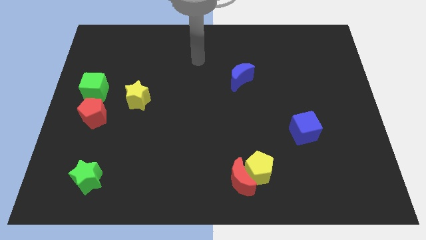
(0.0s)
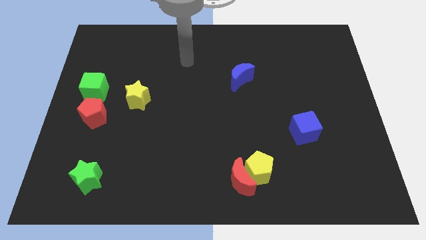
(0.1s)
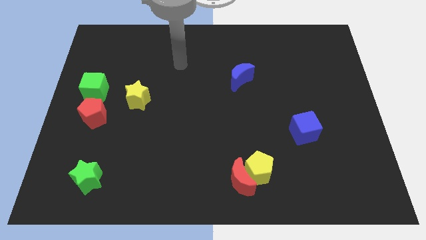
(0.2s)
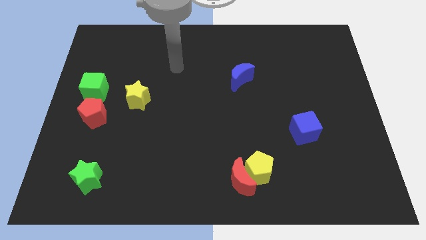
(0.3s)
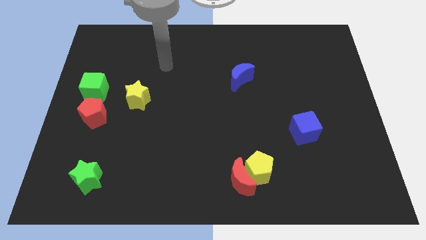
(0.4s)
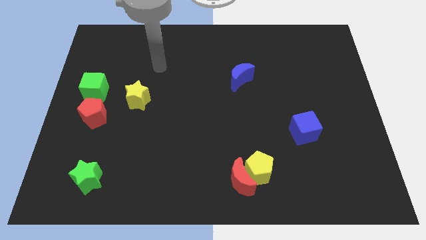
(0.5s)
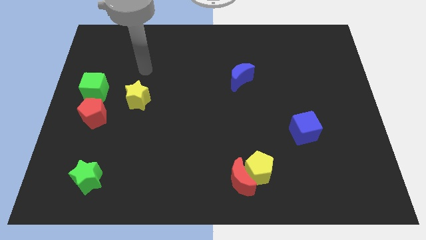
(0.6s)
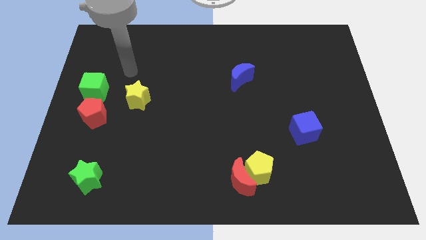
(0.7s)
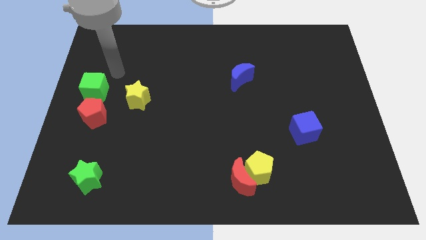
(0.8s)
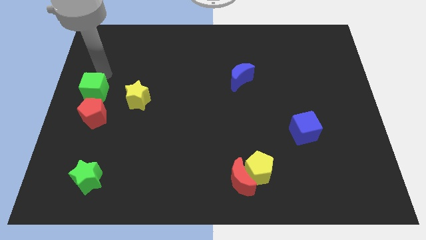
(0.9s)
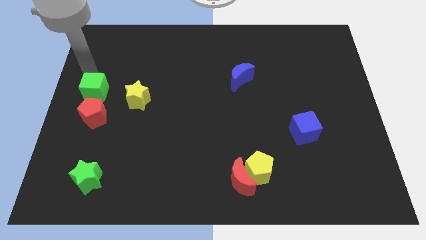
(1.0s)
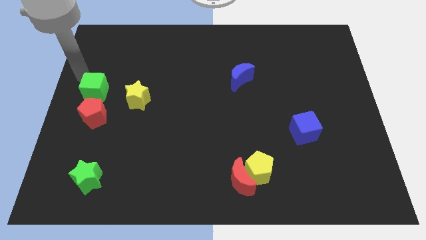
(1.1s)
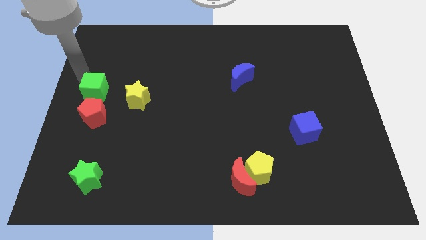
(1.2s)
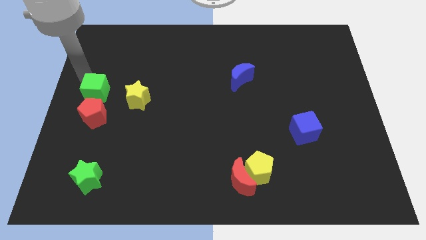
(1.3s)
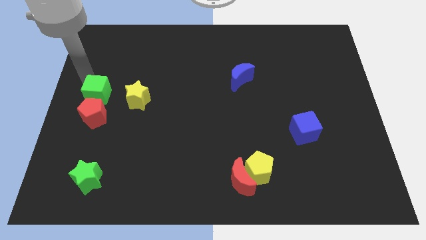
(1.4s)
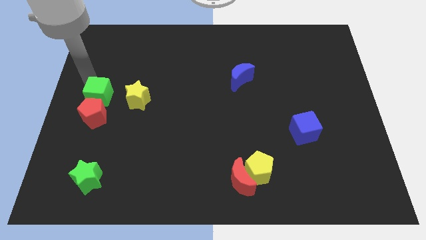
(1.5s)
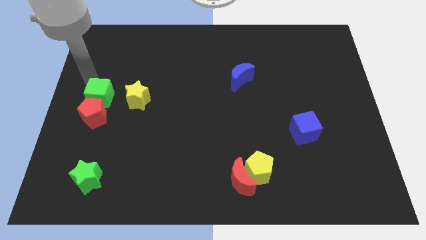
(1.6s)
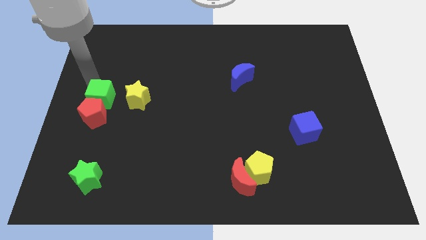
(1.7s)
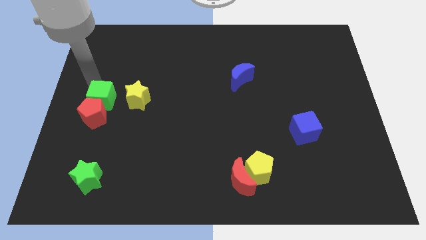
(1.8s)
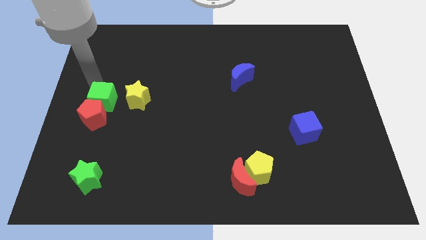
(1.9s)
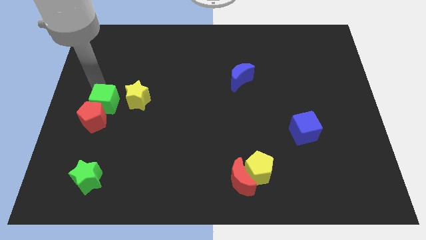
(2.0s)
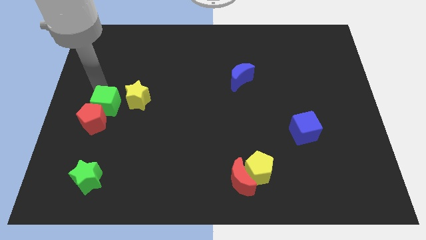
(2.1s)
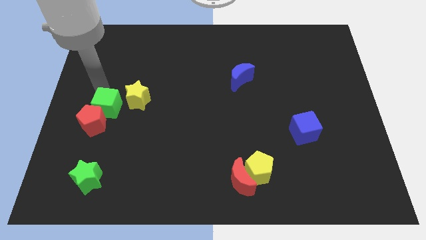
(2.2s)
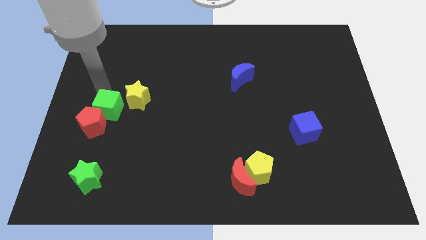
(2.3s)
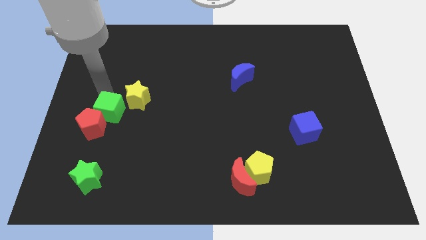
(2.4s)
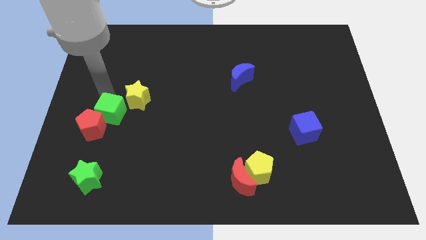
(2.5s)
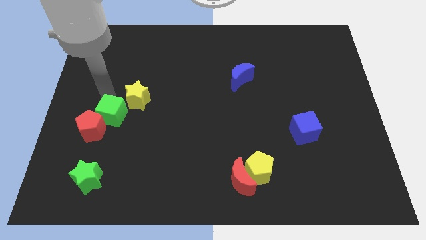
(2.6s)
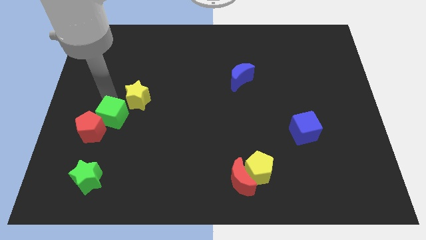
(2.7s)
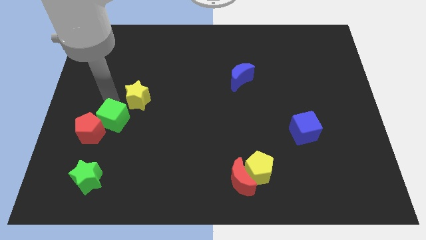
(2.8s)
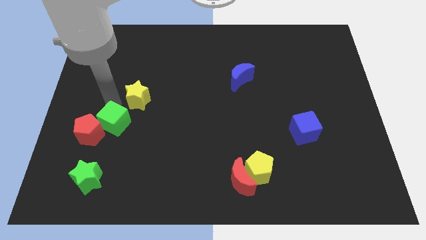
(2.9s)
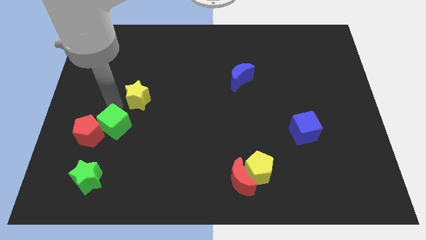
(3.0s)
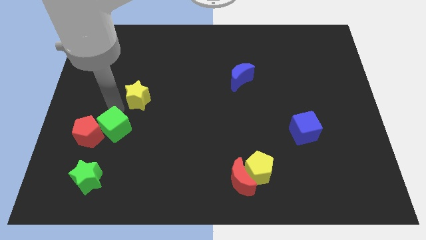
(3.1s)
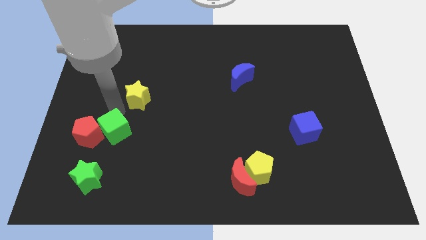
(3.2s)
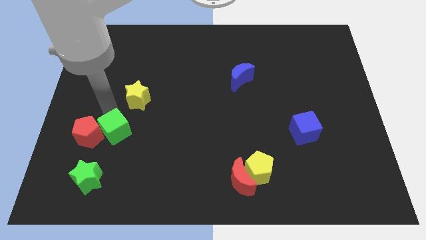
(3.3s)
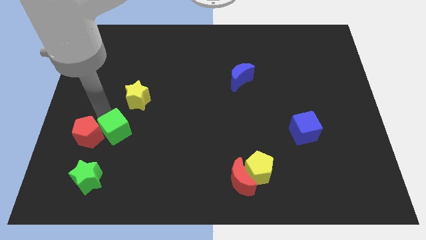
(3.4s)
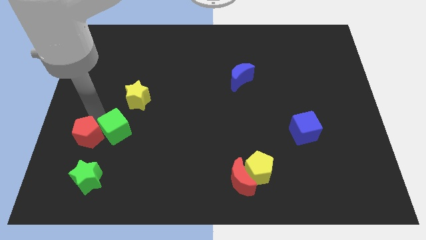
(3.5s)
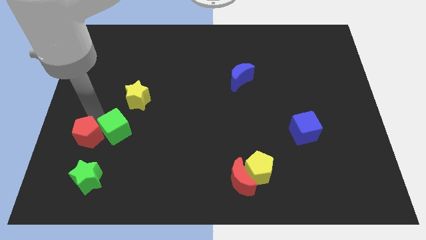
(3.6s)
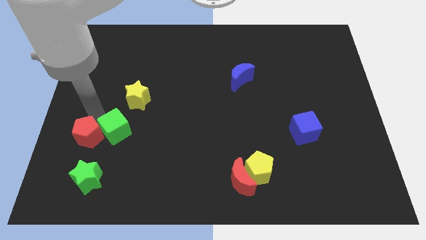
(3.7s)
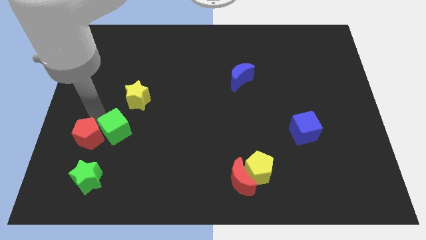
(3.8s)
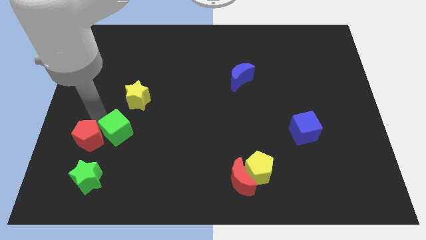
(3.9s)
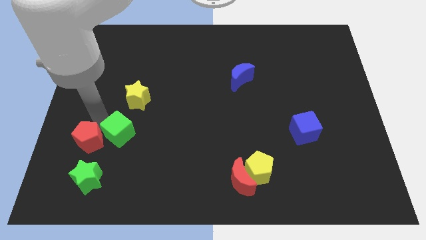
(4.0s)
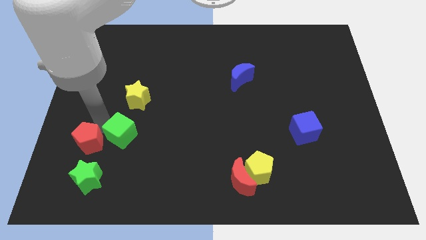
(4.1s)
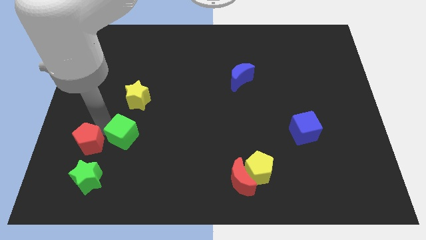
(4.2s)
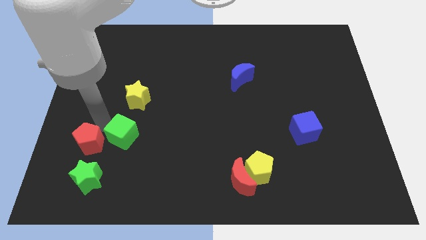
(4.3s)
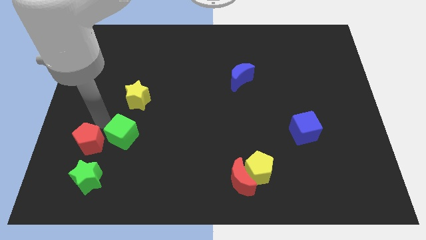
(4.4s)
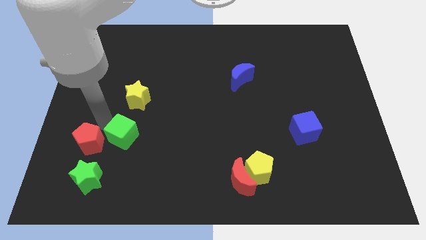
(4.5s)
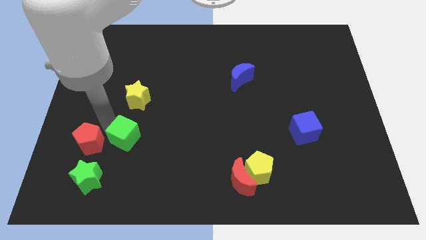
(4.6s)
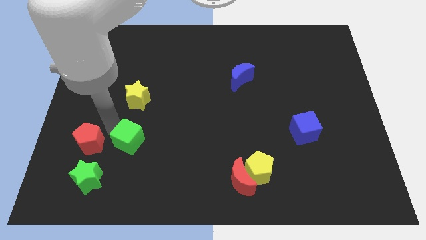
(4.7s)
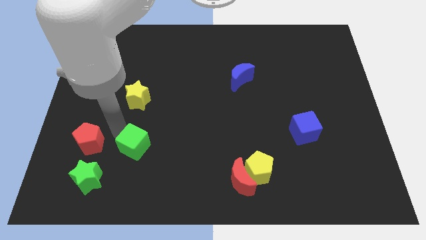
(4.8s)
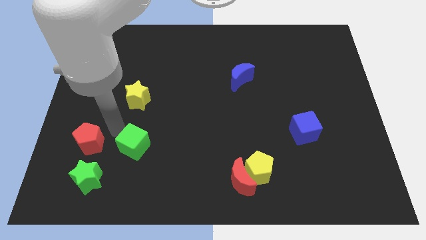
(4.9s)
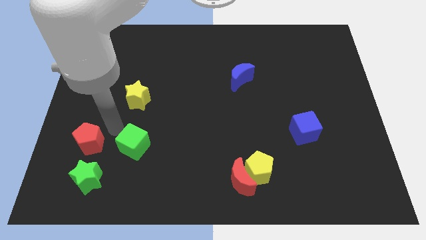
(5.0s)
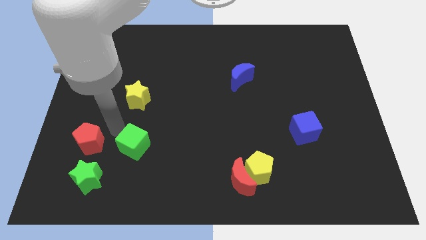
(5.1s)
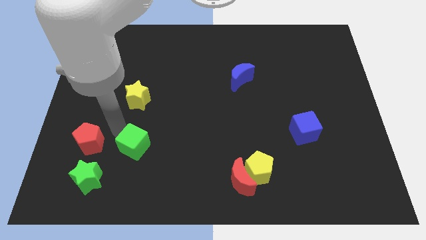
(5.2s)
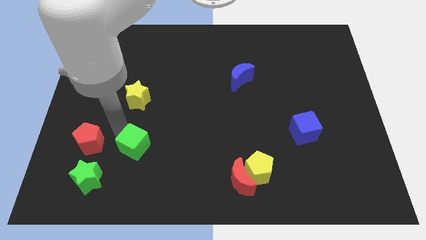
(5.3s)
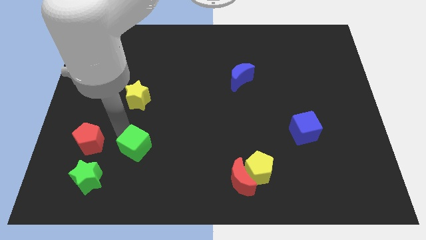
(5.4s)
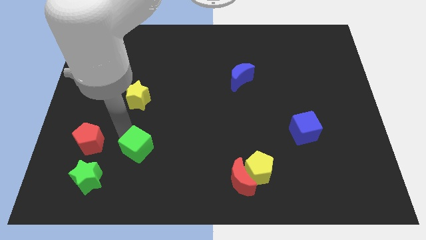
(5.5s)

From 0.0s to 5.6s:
slide the green cube downwards and right

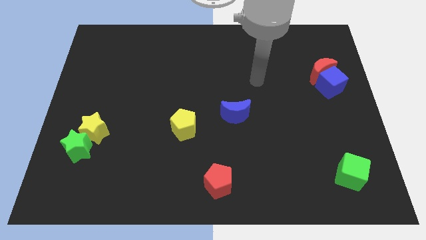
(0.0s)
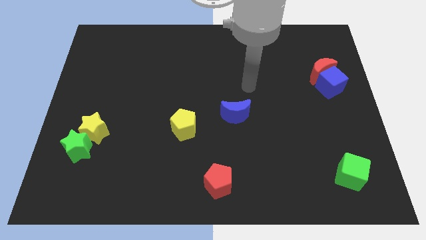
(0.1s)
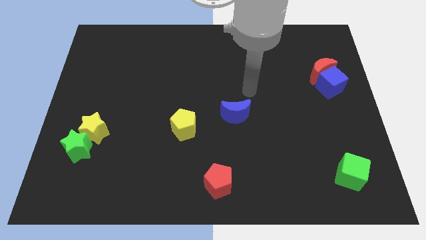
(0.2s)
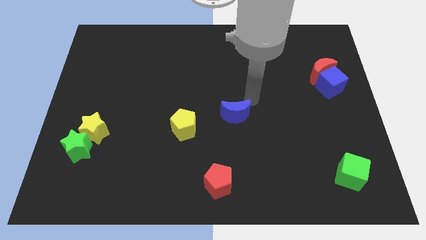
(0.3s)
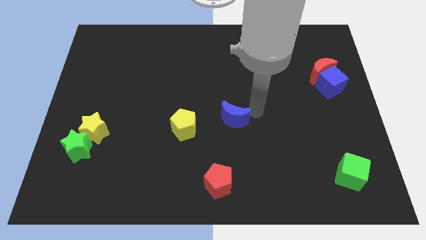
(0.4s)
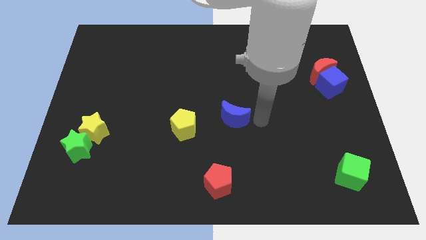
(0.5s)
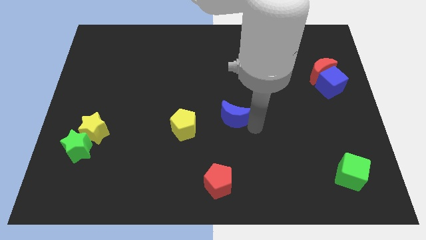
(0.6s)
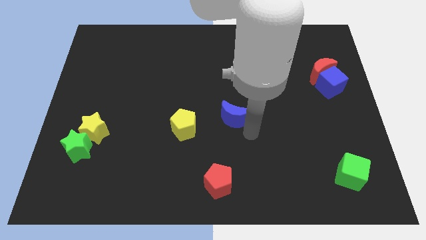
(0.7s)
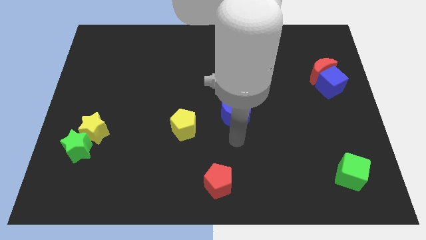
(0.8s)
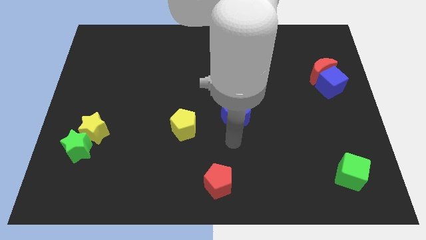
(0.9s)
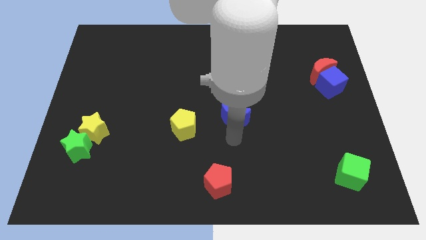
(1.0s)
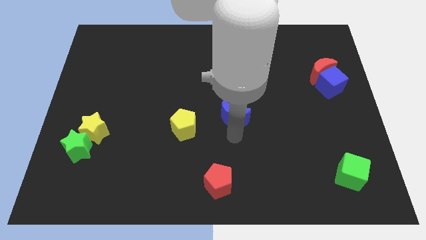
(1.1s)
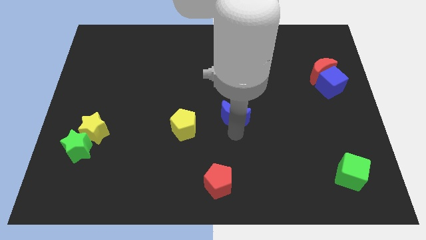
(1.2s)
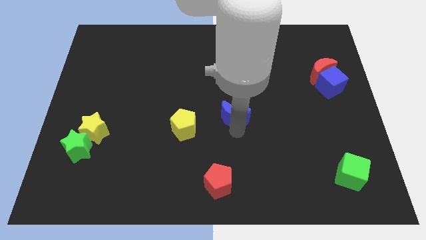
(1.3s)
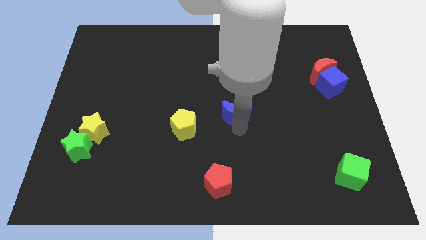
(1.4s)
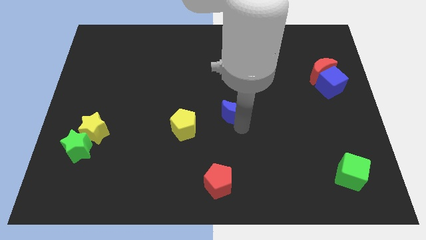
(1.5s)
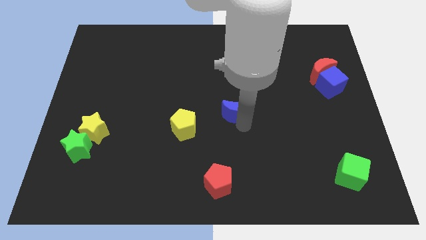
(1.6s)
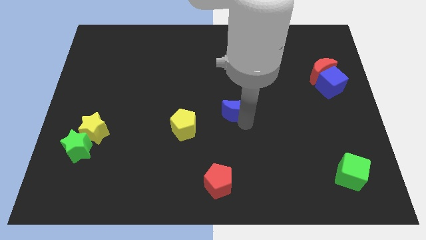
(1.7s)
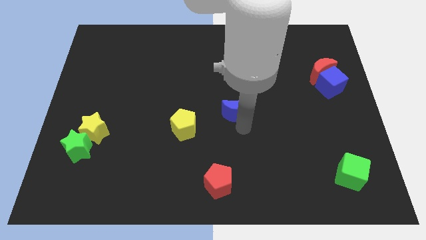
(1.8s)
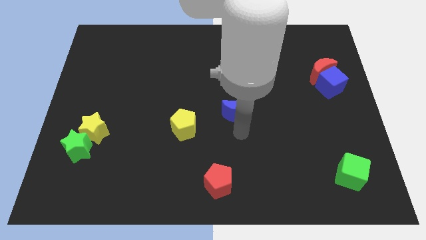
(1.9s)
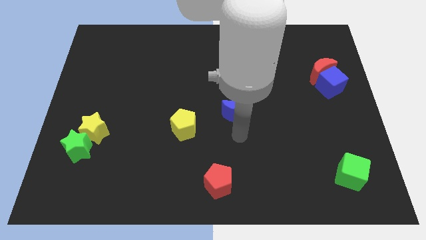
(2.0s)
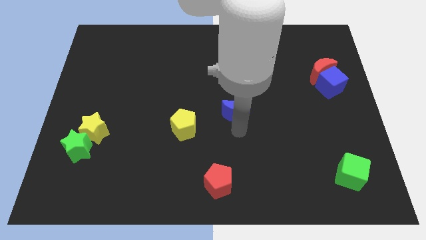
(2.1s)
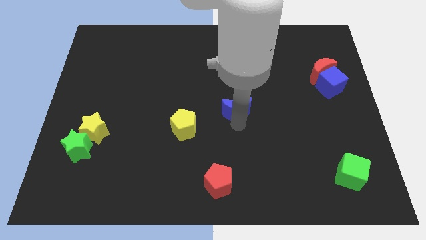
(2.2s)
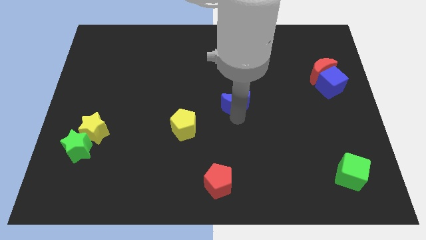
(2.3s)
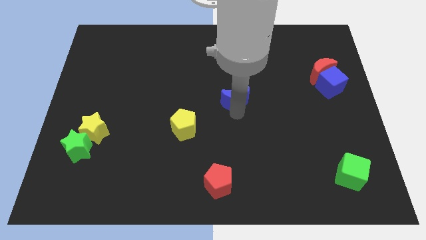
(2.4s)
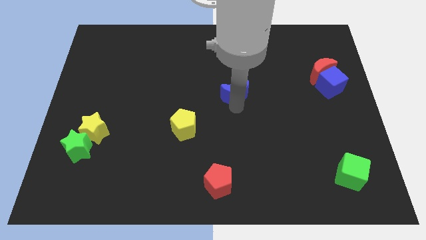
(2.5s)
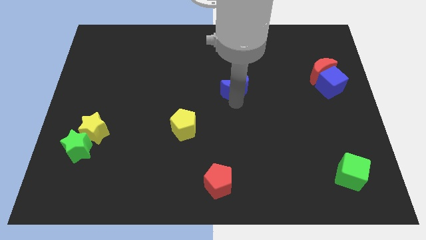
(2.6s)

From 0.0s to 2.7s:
move the blue moon up somewhat
